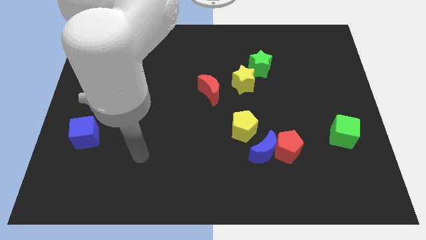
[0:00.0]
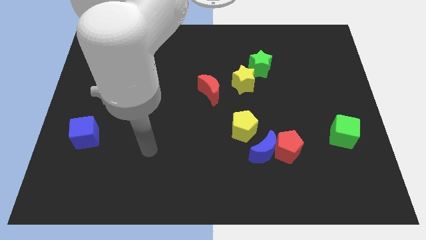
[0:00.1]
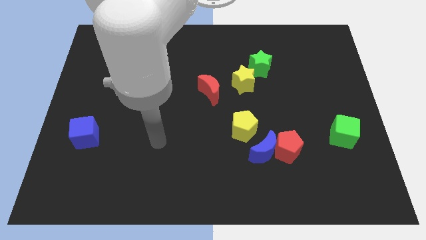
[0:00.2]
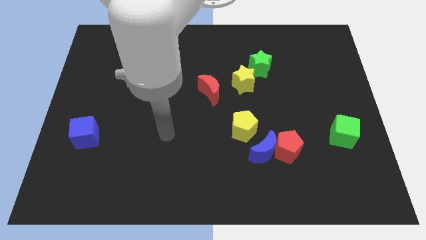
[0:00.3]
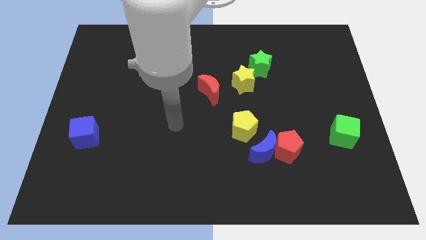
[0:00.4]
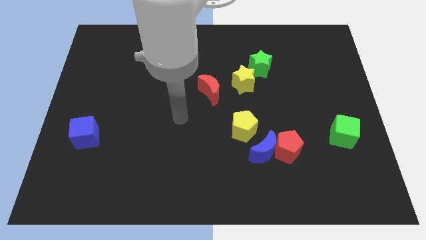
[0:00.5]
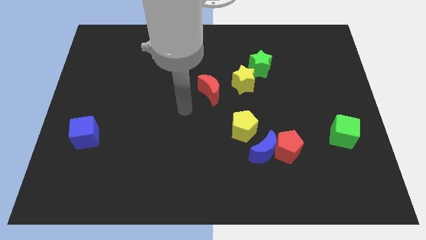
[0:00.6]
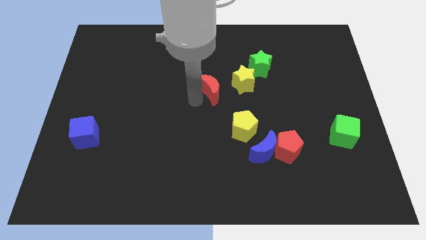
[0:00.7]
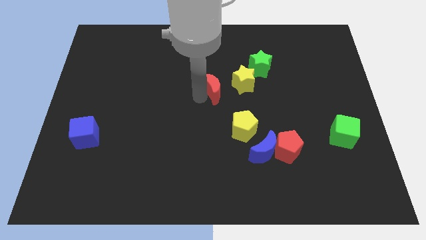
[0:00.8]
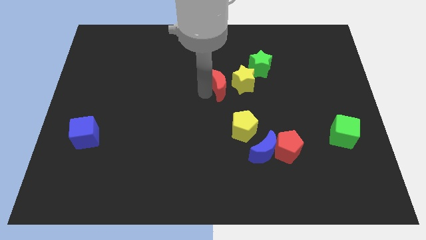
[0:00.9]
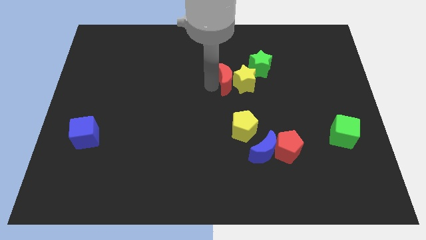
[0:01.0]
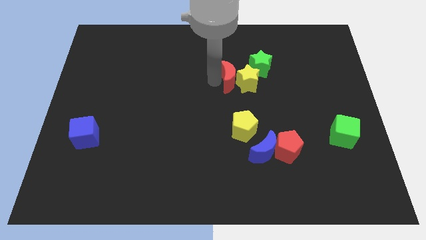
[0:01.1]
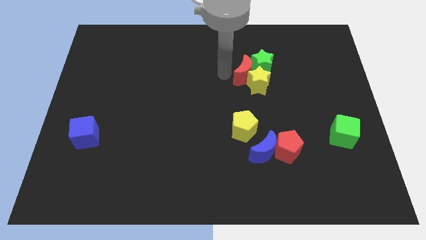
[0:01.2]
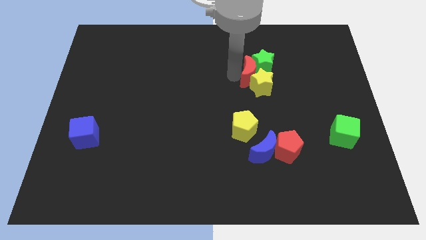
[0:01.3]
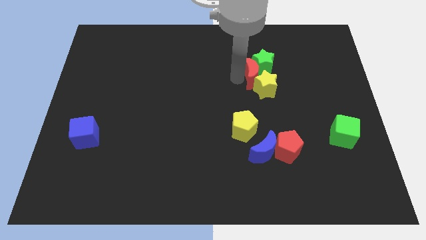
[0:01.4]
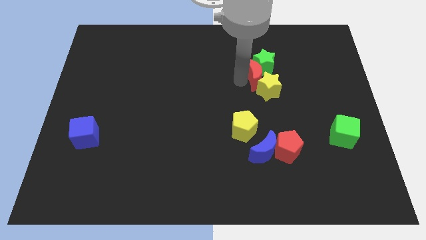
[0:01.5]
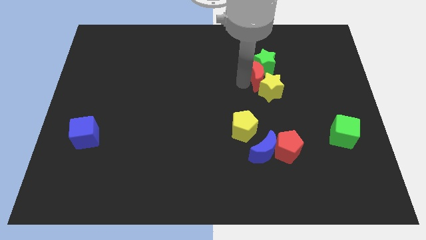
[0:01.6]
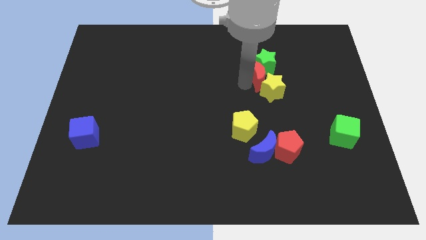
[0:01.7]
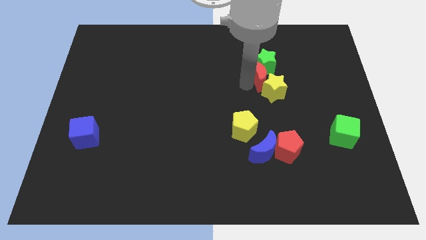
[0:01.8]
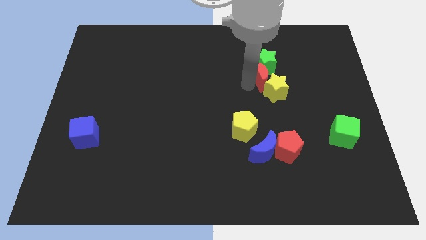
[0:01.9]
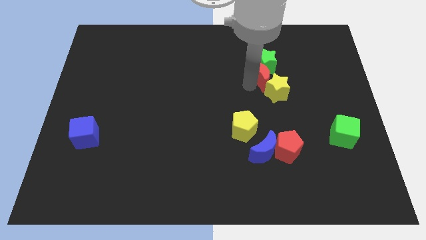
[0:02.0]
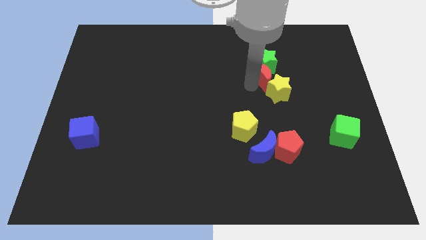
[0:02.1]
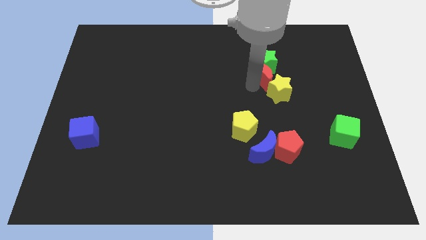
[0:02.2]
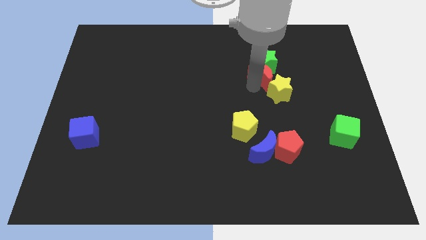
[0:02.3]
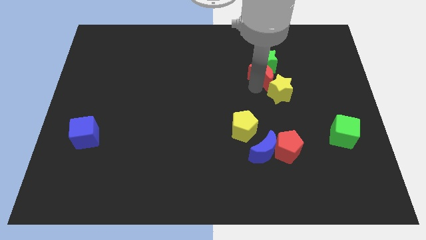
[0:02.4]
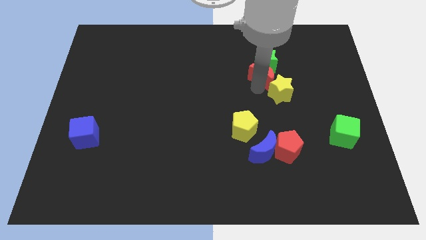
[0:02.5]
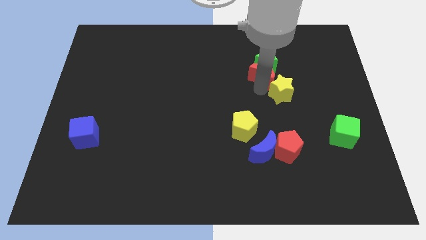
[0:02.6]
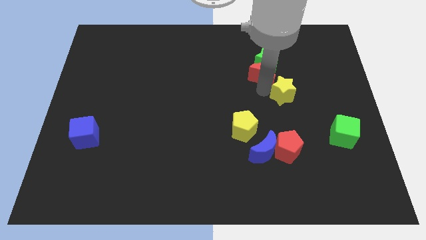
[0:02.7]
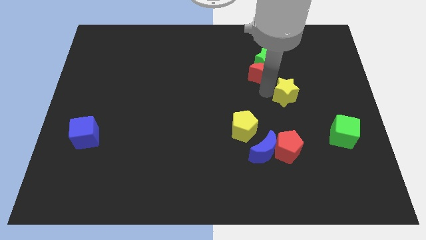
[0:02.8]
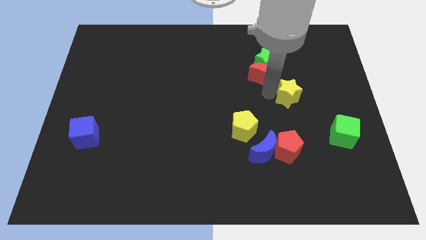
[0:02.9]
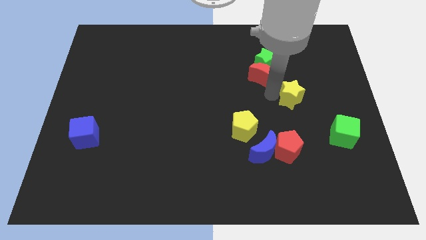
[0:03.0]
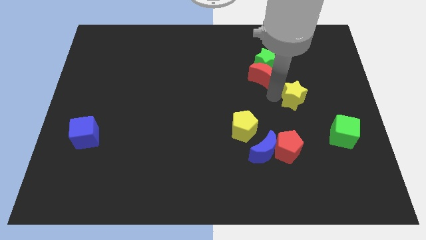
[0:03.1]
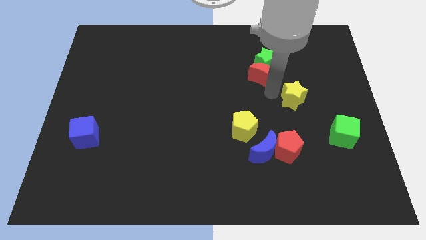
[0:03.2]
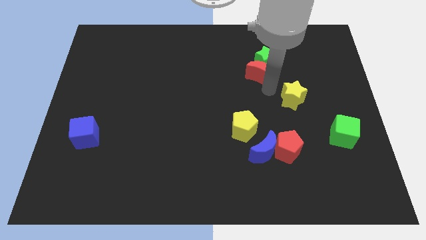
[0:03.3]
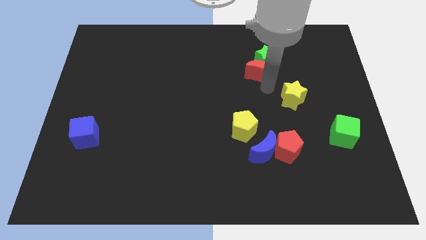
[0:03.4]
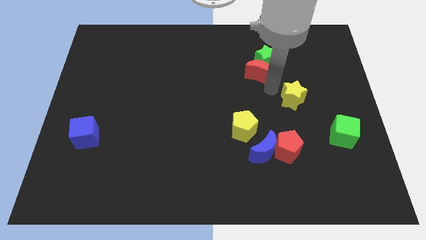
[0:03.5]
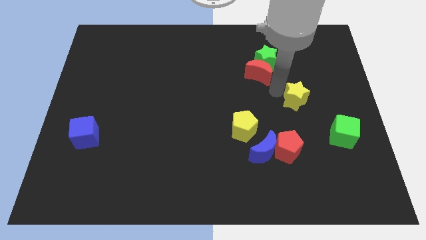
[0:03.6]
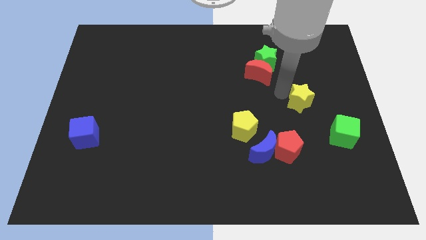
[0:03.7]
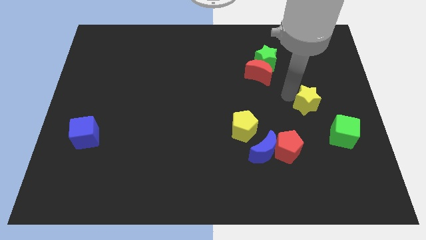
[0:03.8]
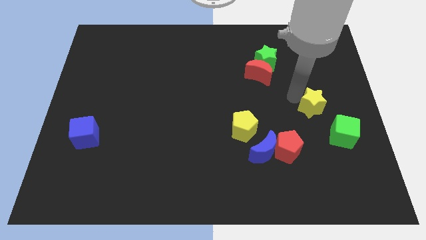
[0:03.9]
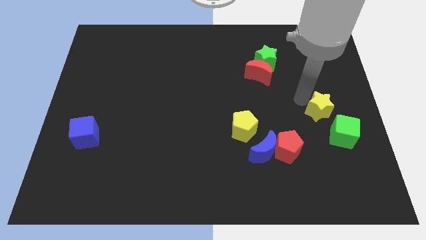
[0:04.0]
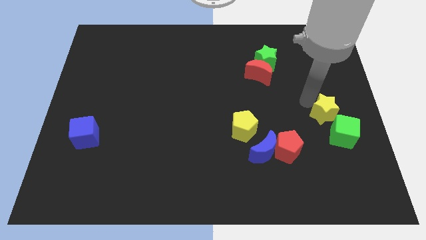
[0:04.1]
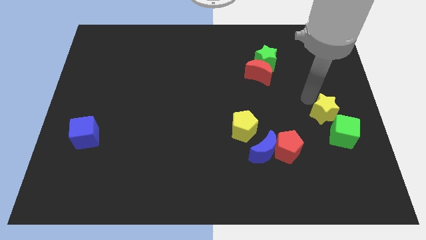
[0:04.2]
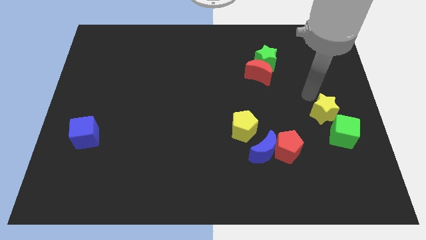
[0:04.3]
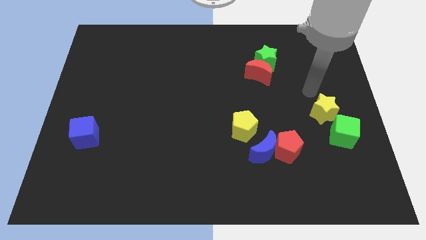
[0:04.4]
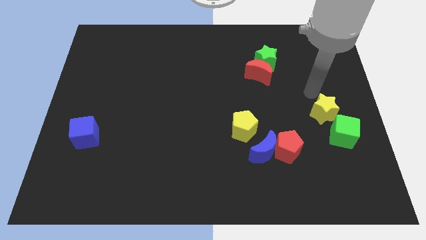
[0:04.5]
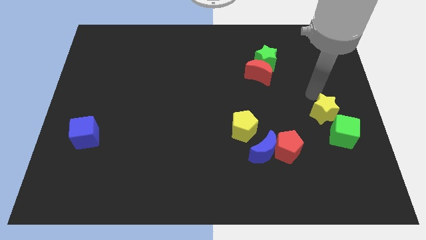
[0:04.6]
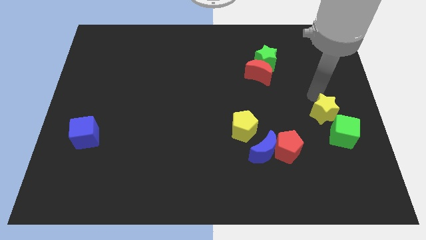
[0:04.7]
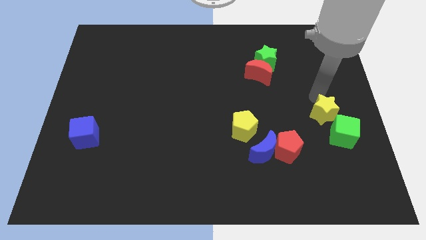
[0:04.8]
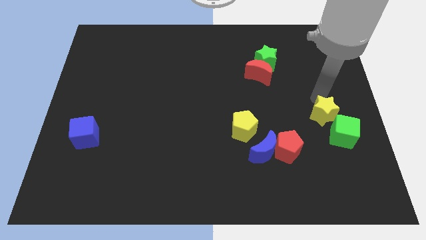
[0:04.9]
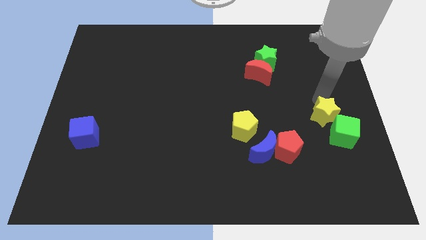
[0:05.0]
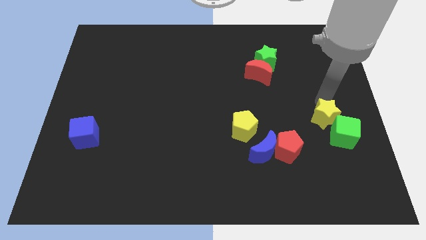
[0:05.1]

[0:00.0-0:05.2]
push the yellow star close to the green cube

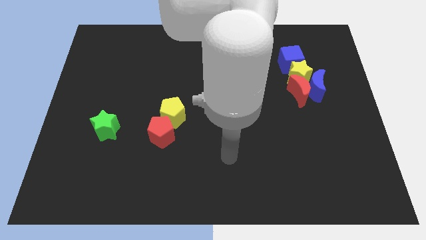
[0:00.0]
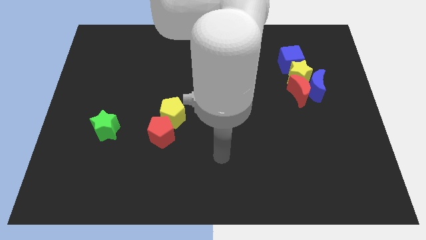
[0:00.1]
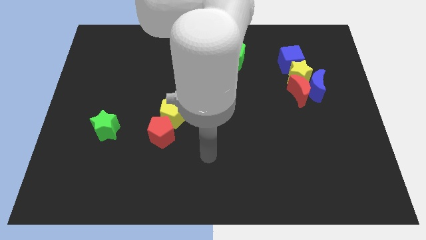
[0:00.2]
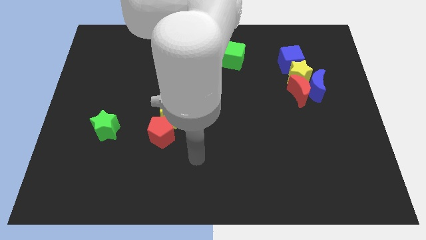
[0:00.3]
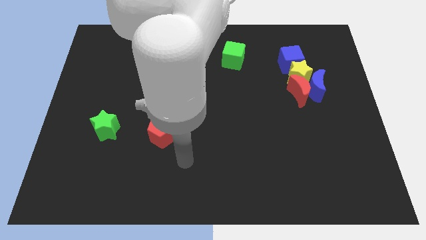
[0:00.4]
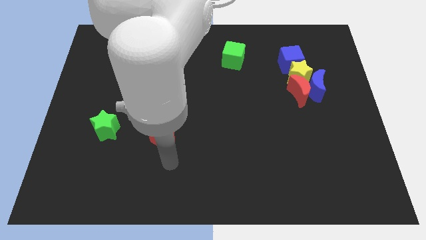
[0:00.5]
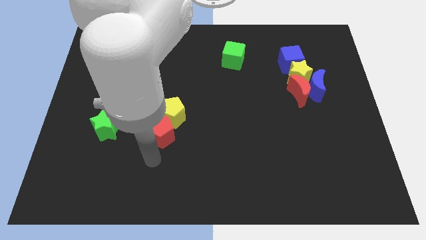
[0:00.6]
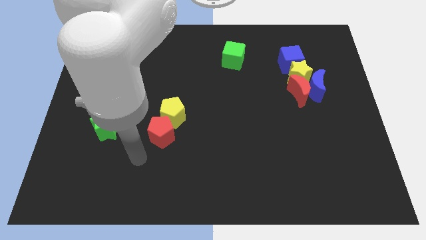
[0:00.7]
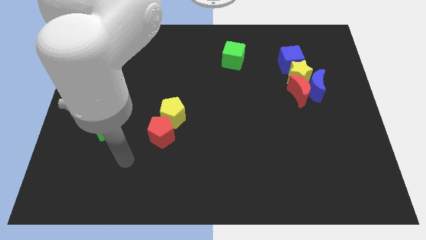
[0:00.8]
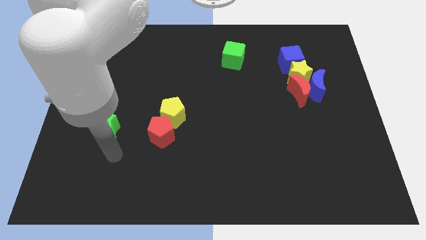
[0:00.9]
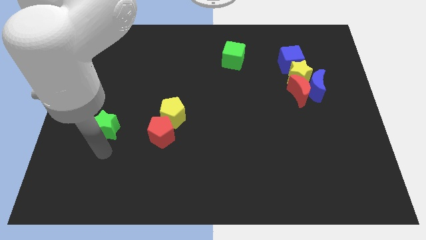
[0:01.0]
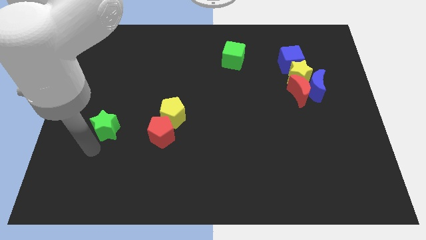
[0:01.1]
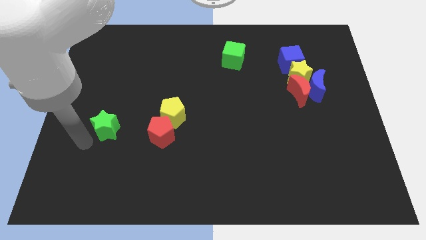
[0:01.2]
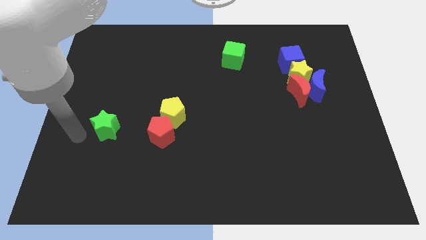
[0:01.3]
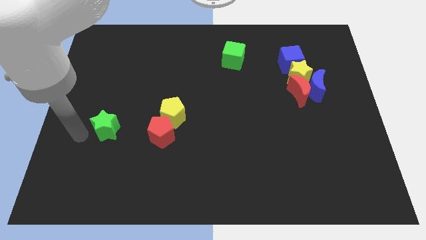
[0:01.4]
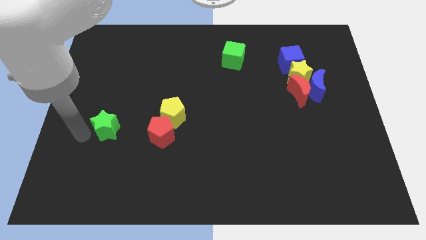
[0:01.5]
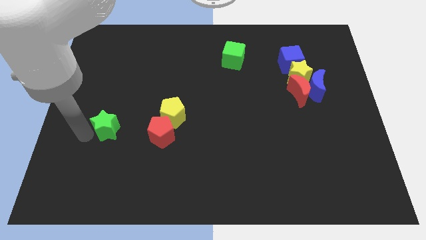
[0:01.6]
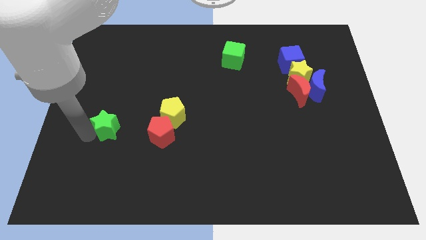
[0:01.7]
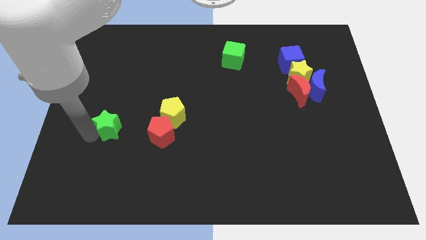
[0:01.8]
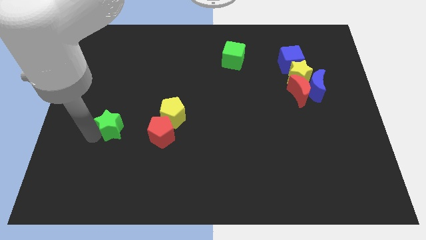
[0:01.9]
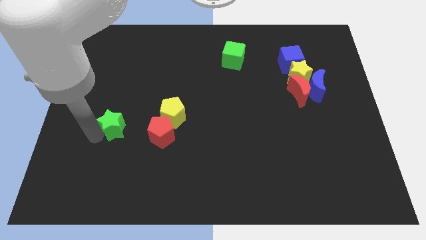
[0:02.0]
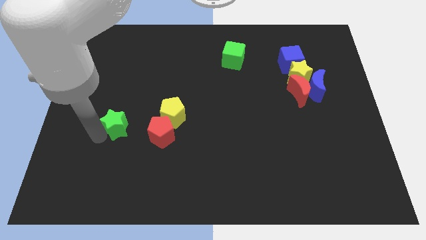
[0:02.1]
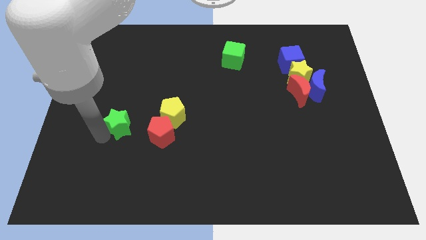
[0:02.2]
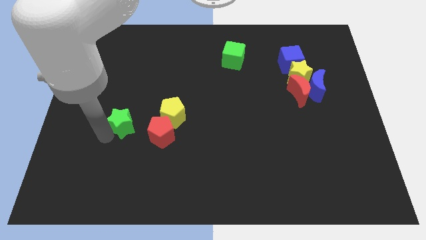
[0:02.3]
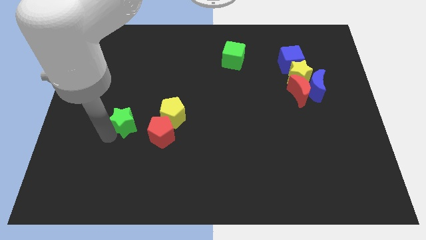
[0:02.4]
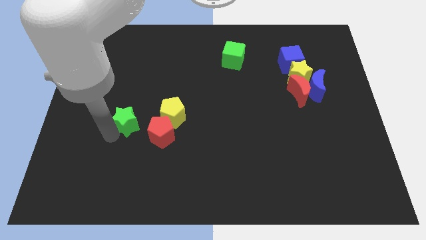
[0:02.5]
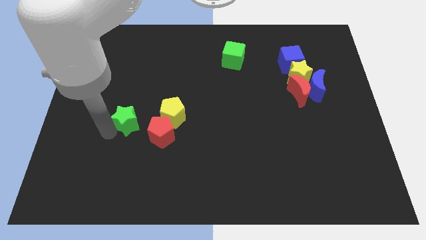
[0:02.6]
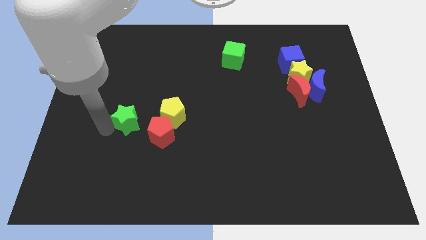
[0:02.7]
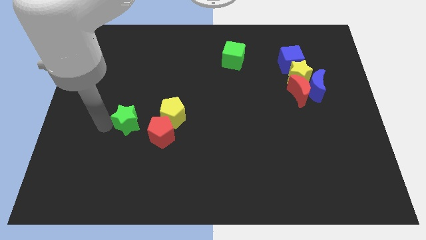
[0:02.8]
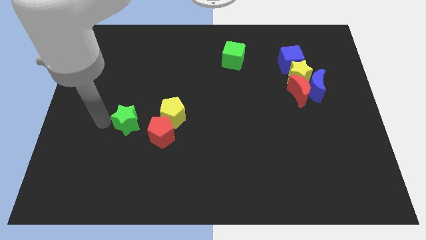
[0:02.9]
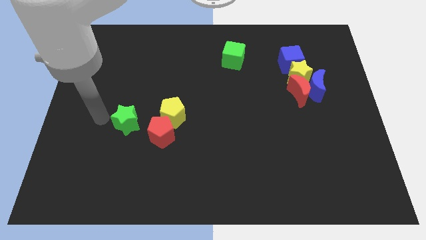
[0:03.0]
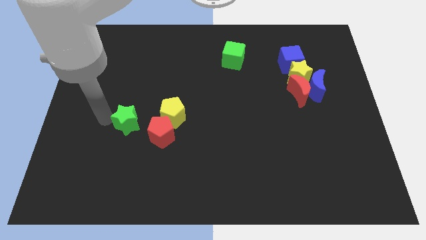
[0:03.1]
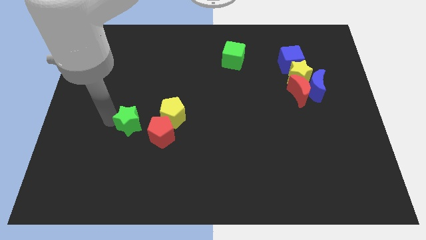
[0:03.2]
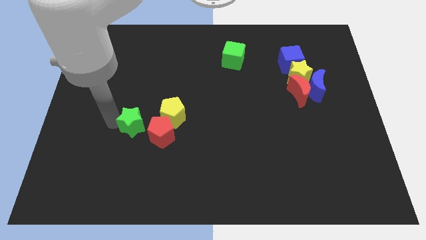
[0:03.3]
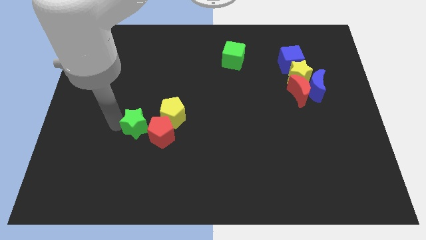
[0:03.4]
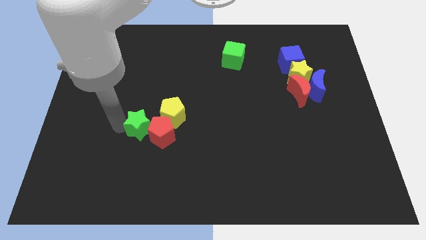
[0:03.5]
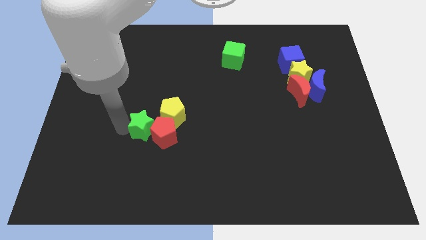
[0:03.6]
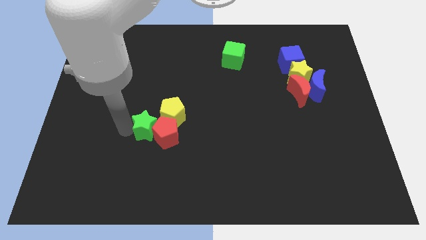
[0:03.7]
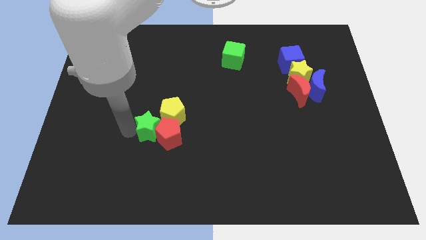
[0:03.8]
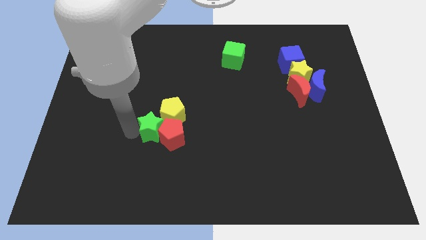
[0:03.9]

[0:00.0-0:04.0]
move the green star towards the yellow pentagon
